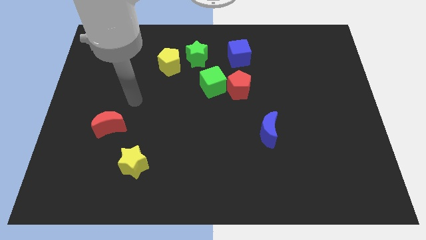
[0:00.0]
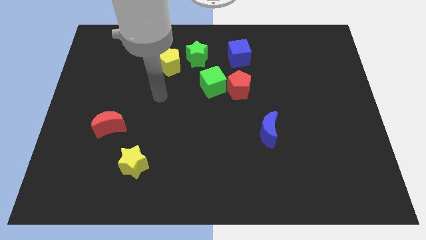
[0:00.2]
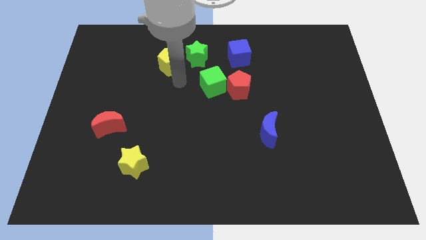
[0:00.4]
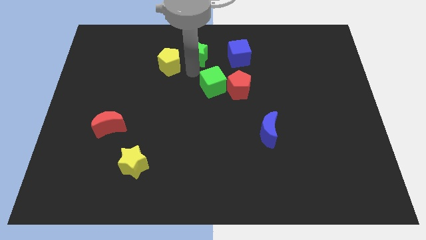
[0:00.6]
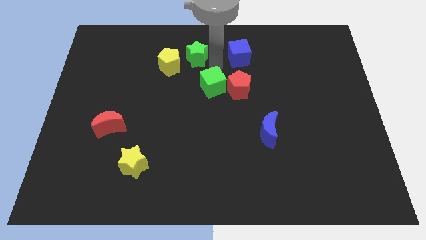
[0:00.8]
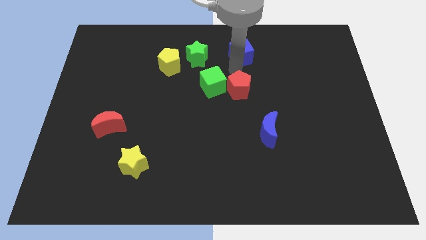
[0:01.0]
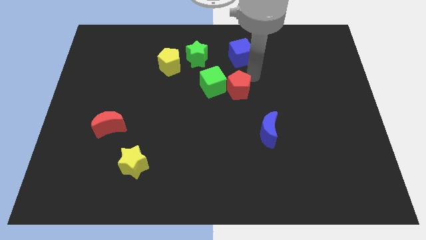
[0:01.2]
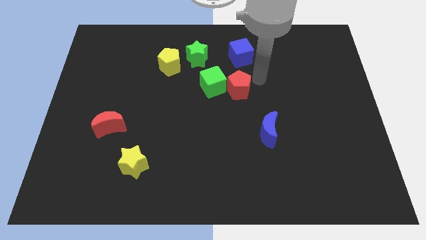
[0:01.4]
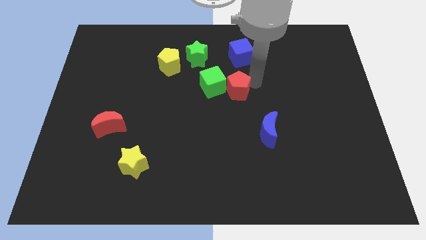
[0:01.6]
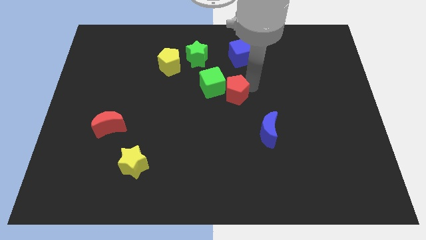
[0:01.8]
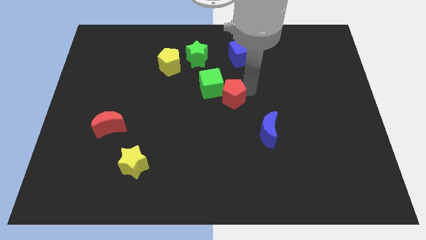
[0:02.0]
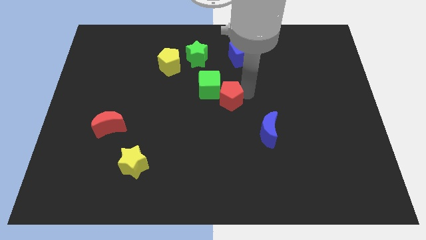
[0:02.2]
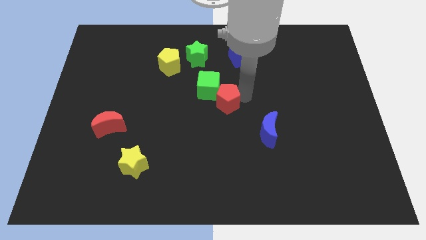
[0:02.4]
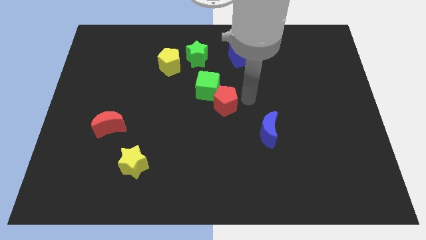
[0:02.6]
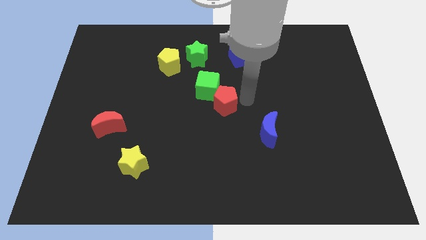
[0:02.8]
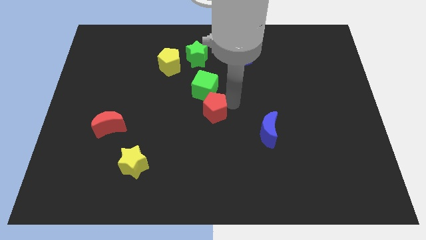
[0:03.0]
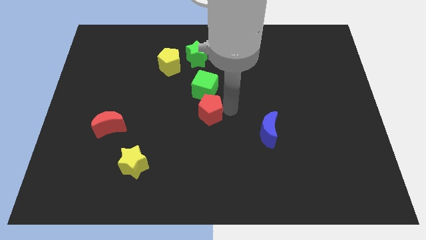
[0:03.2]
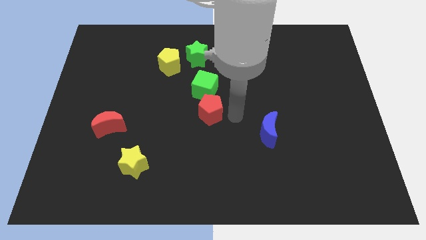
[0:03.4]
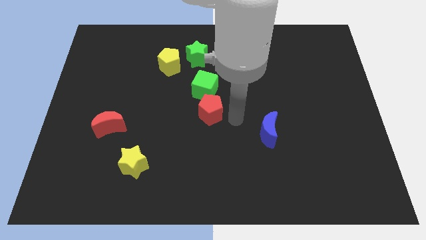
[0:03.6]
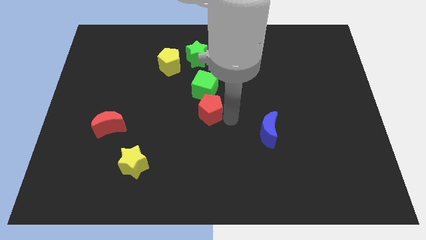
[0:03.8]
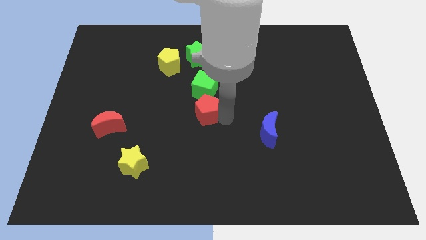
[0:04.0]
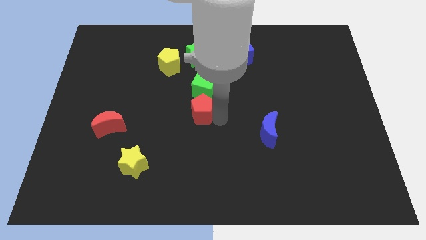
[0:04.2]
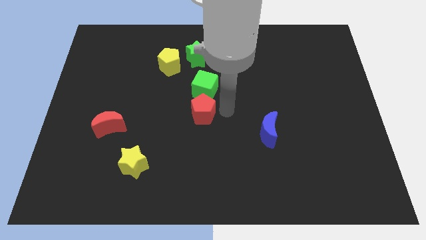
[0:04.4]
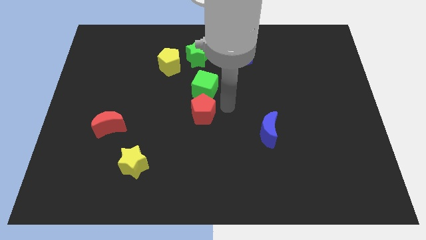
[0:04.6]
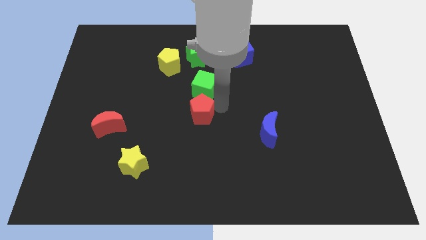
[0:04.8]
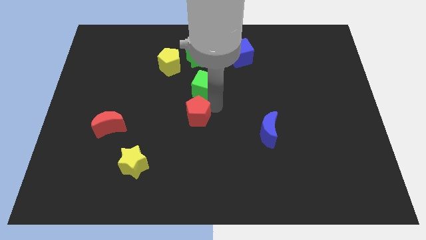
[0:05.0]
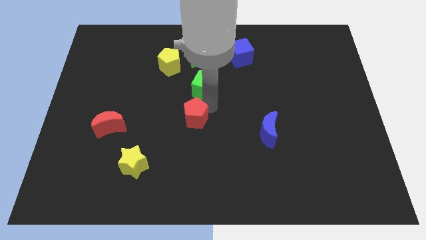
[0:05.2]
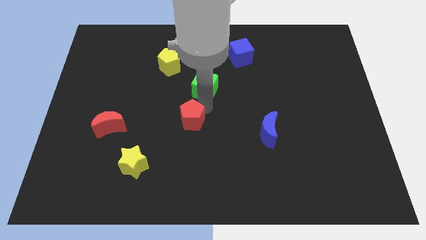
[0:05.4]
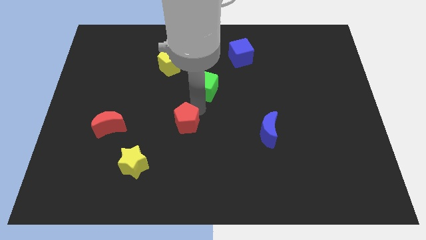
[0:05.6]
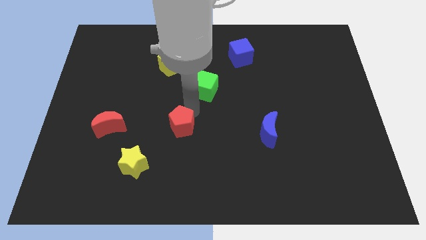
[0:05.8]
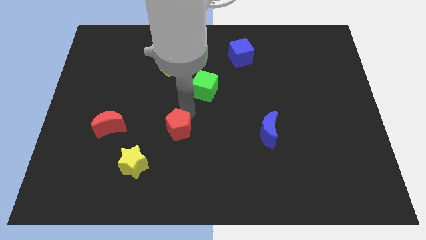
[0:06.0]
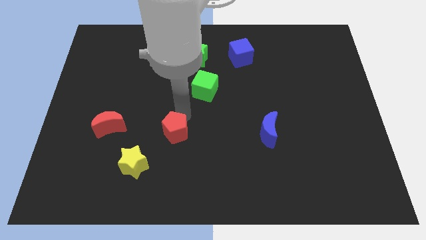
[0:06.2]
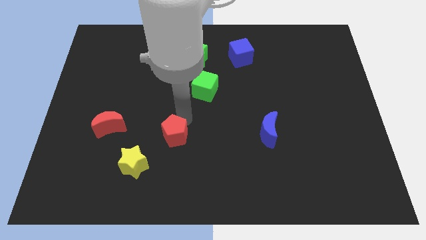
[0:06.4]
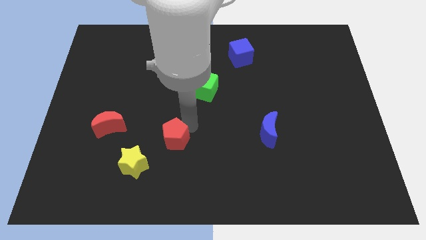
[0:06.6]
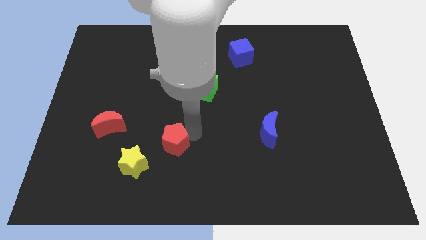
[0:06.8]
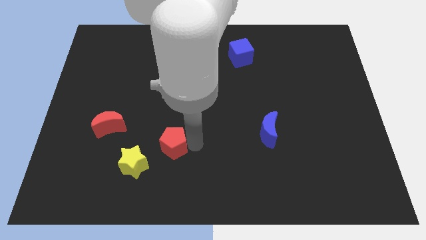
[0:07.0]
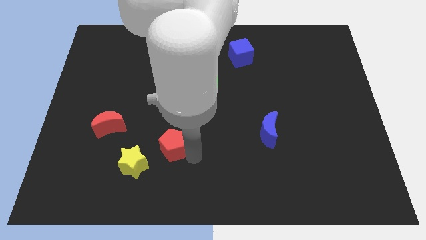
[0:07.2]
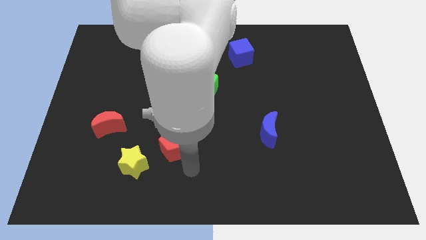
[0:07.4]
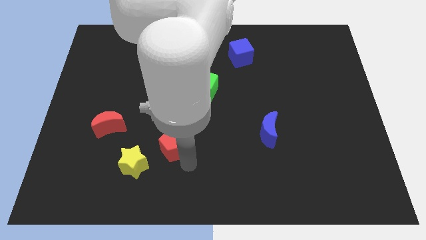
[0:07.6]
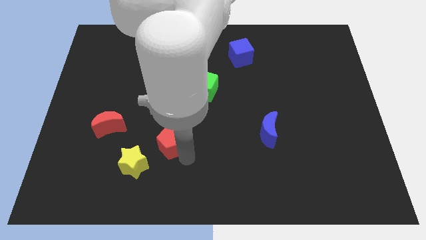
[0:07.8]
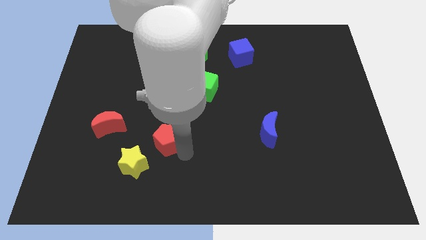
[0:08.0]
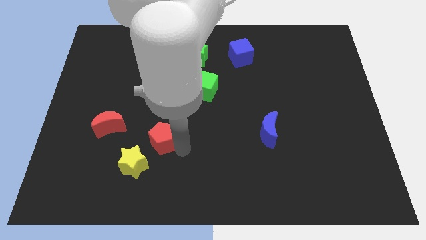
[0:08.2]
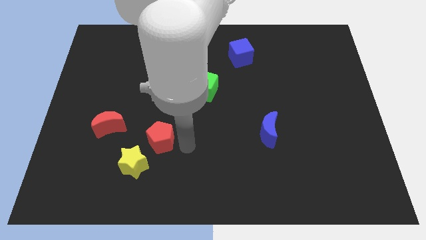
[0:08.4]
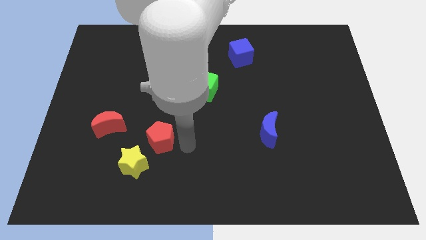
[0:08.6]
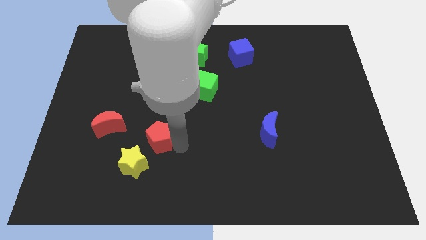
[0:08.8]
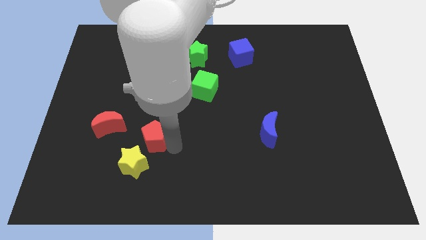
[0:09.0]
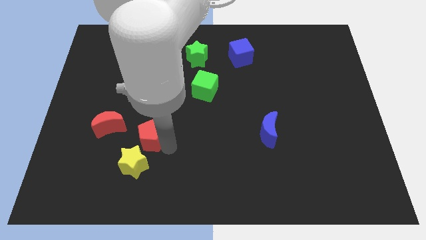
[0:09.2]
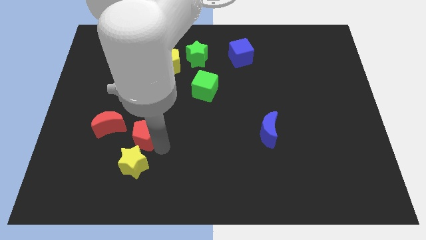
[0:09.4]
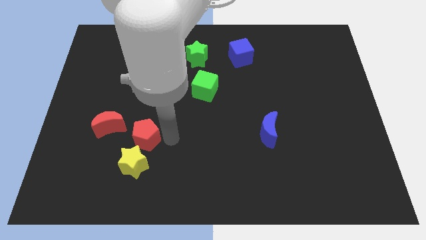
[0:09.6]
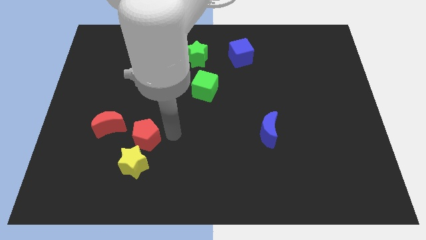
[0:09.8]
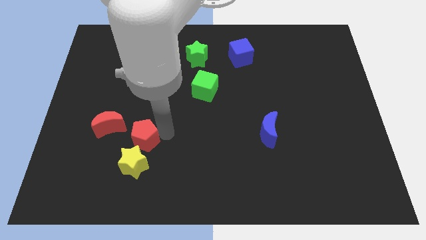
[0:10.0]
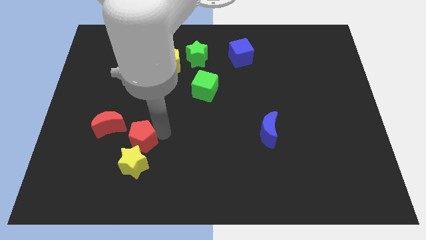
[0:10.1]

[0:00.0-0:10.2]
slide the red pentagon to the top left of the yellow star

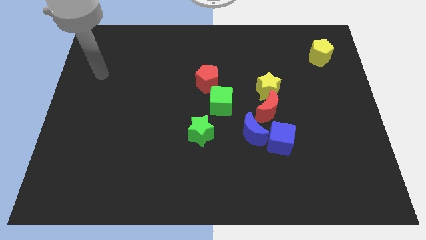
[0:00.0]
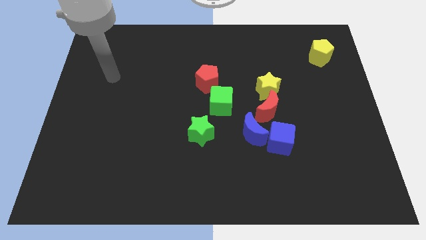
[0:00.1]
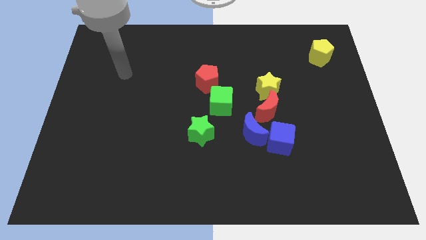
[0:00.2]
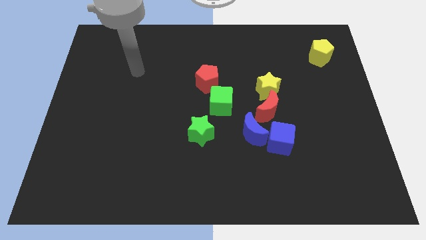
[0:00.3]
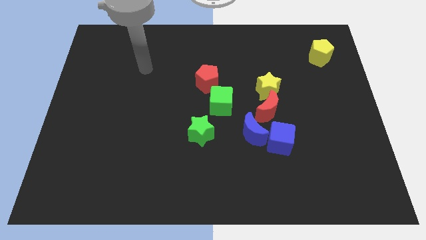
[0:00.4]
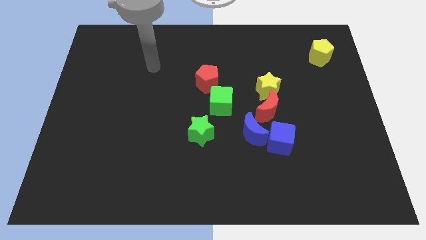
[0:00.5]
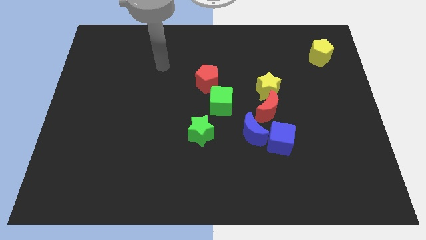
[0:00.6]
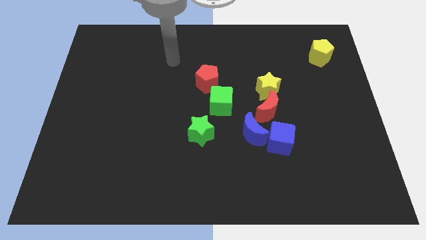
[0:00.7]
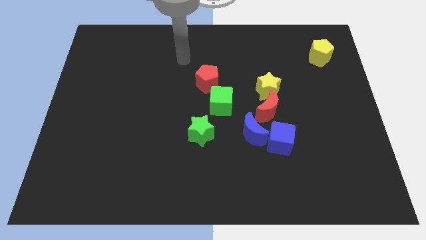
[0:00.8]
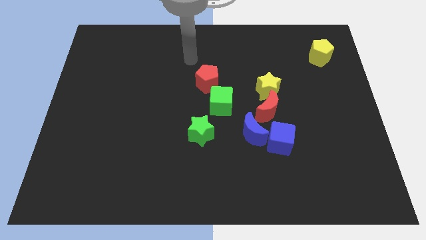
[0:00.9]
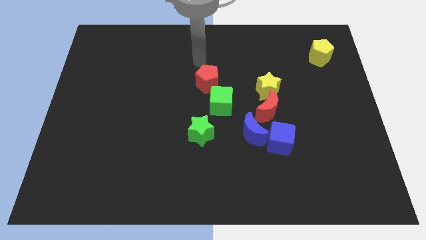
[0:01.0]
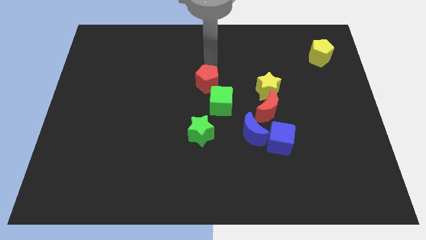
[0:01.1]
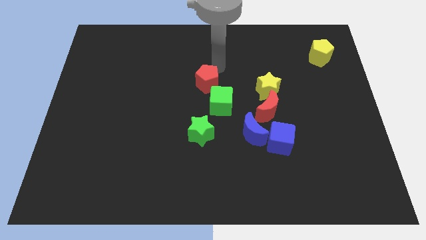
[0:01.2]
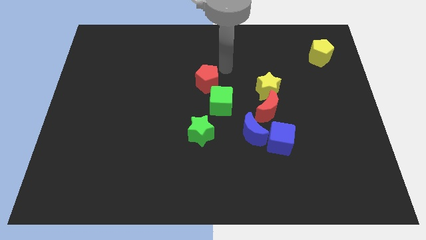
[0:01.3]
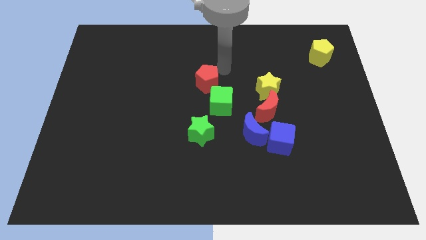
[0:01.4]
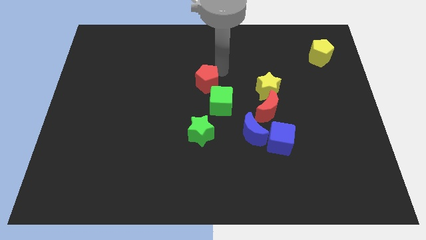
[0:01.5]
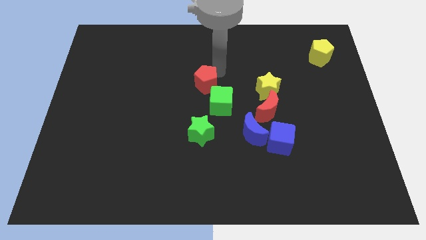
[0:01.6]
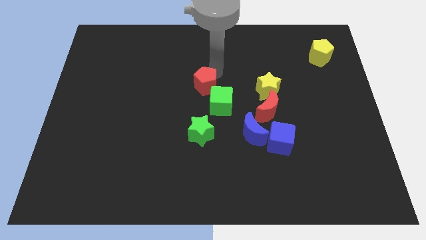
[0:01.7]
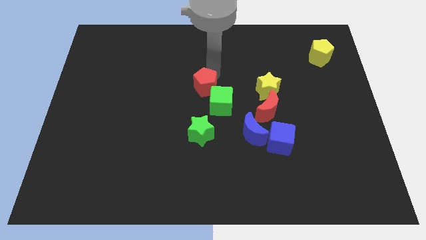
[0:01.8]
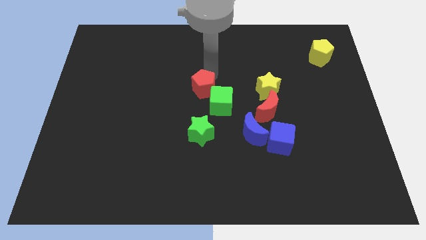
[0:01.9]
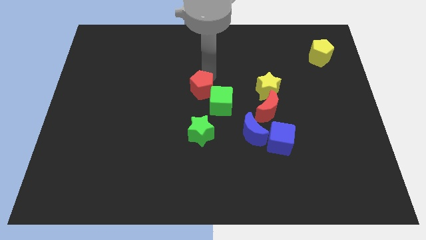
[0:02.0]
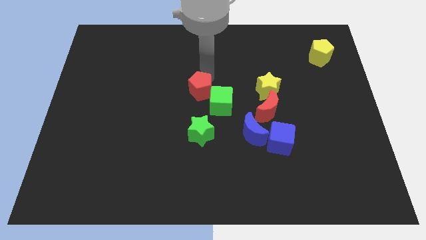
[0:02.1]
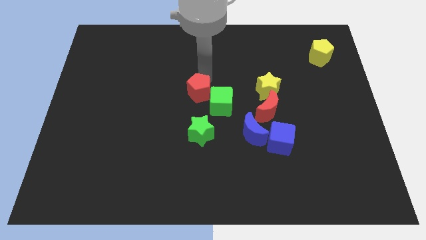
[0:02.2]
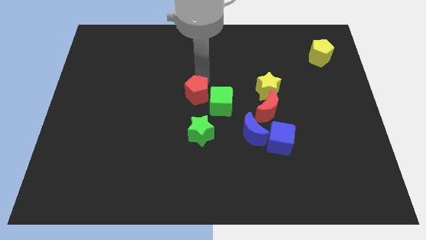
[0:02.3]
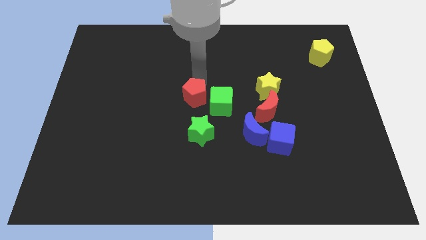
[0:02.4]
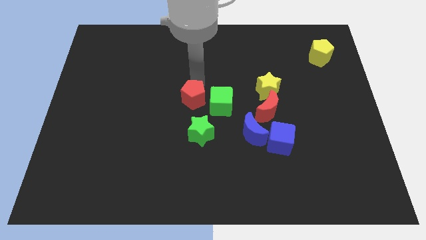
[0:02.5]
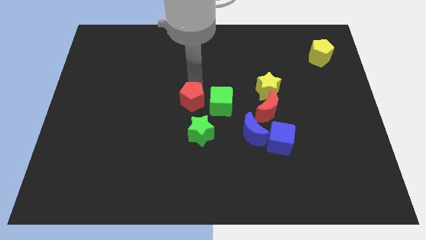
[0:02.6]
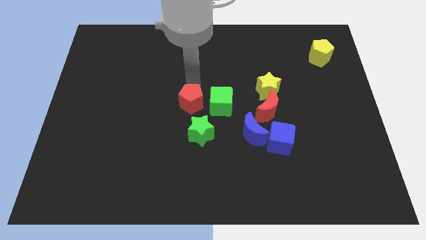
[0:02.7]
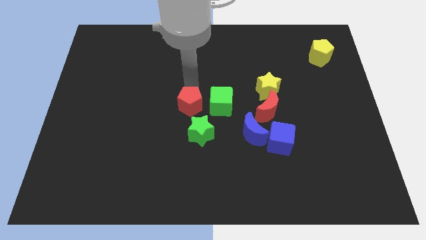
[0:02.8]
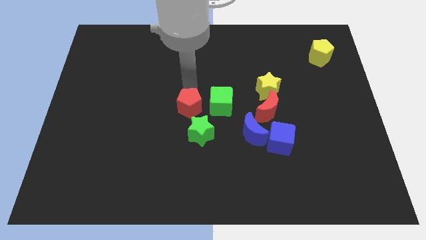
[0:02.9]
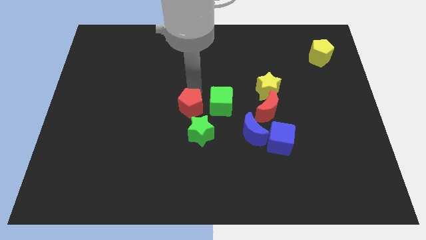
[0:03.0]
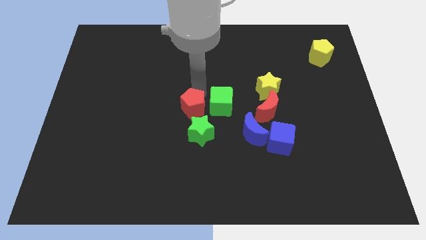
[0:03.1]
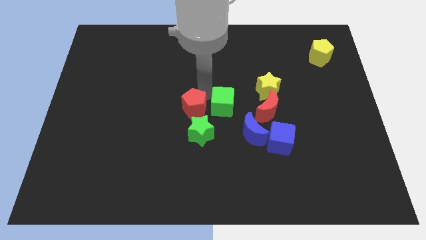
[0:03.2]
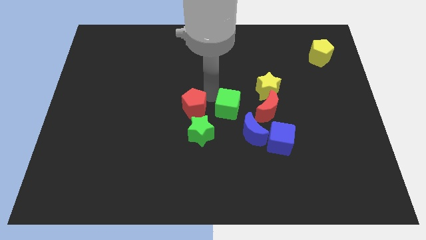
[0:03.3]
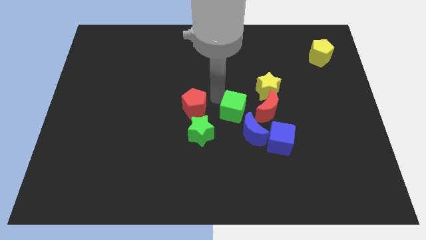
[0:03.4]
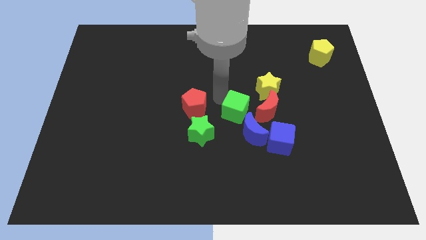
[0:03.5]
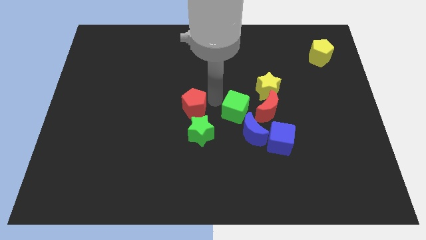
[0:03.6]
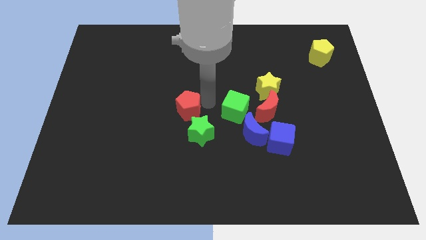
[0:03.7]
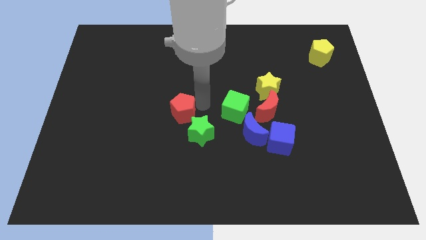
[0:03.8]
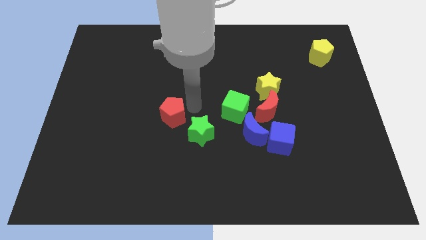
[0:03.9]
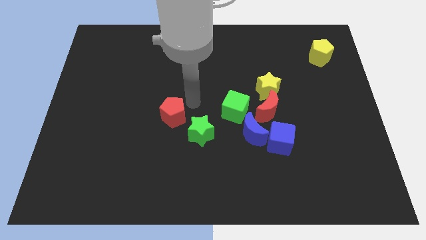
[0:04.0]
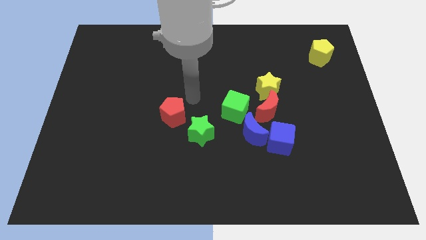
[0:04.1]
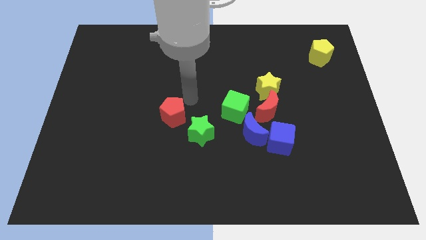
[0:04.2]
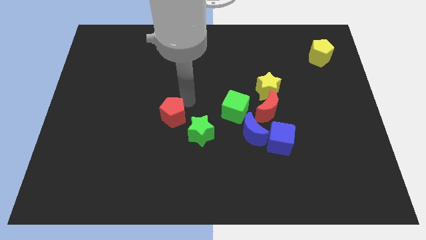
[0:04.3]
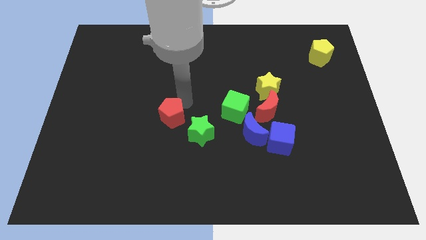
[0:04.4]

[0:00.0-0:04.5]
put the red pentagon to the left of the green star
